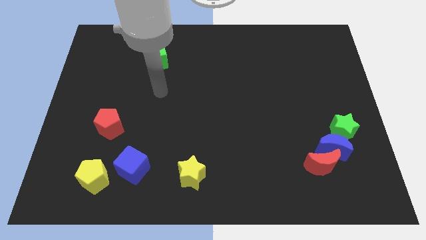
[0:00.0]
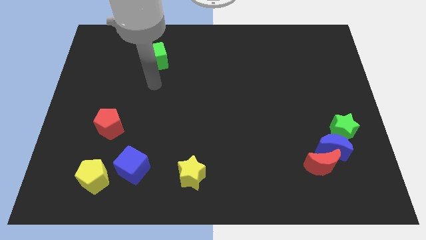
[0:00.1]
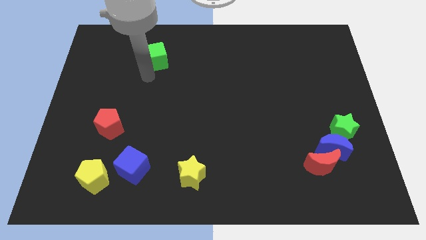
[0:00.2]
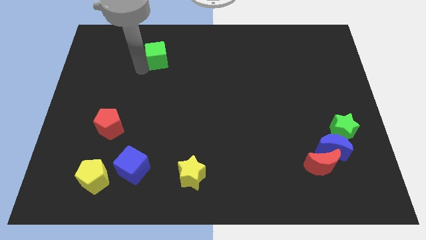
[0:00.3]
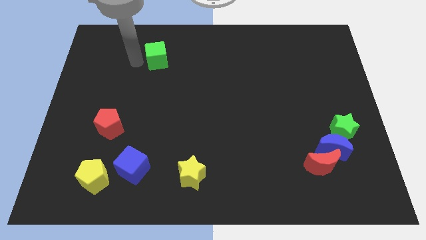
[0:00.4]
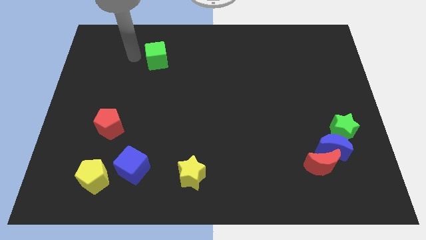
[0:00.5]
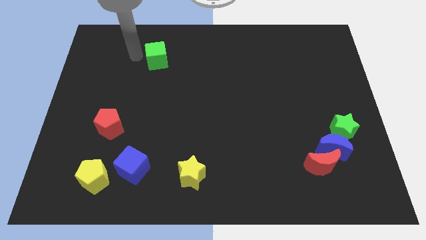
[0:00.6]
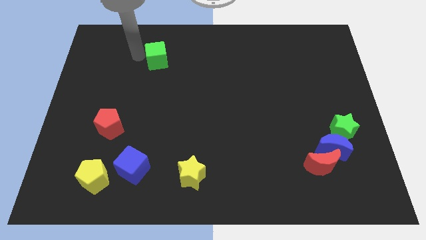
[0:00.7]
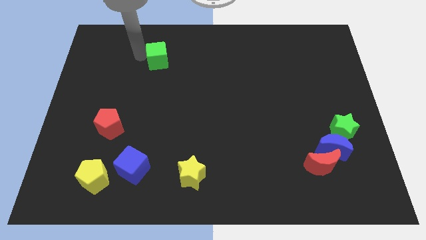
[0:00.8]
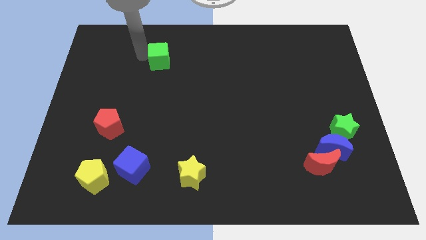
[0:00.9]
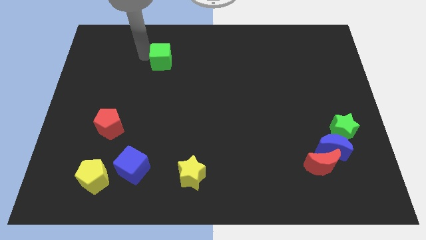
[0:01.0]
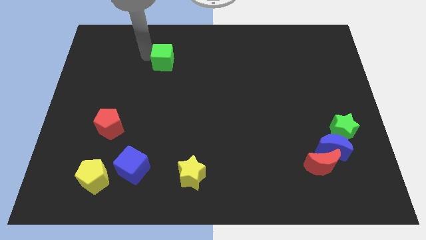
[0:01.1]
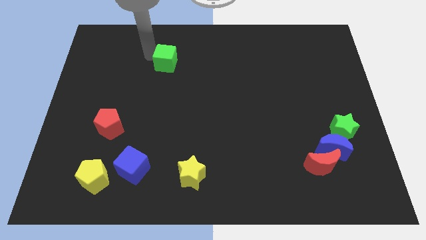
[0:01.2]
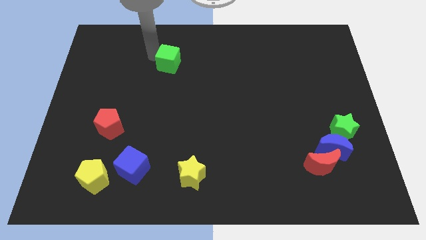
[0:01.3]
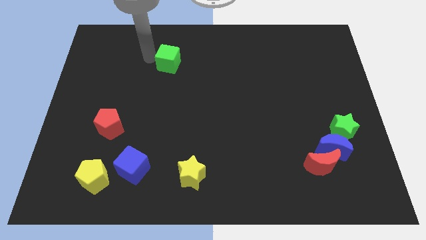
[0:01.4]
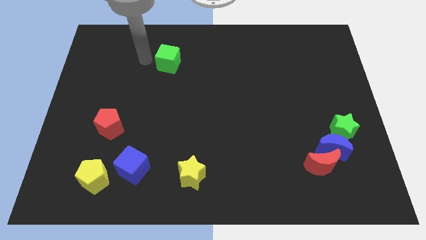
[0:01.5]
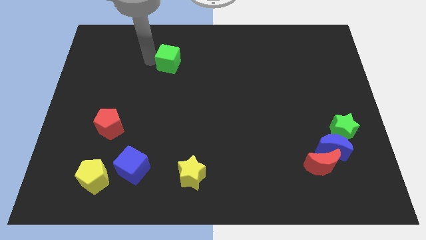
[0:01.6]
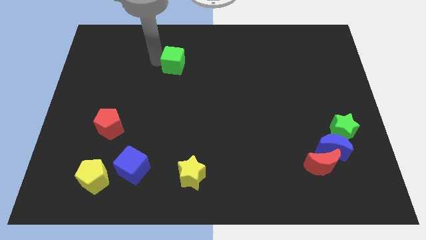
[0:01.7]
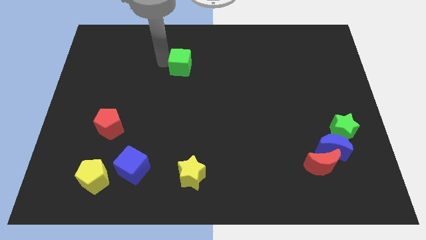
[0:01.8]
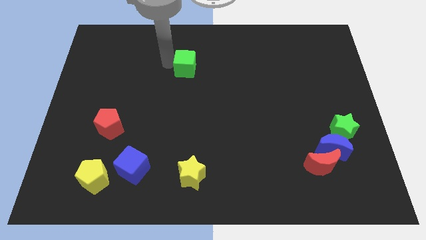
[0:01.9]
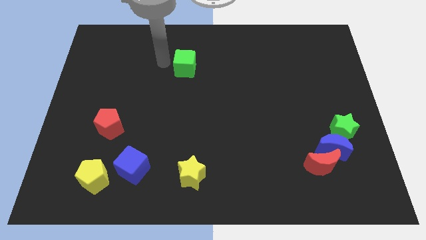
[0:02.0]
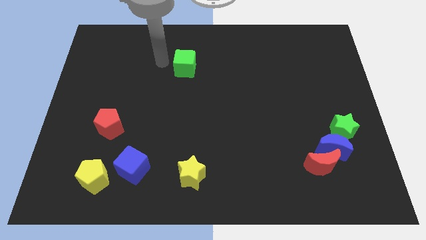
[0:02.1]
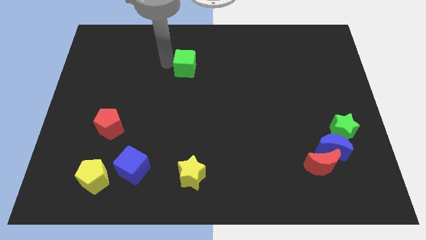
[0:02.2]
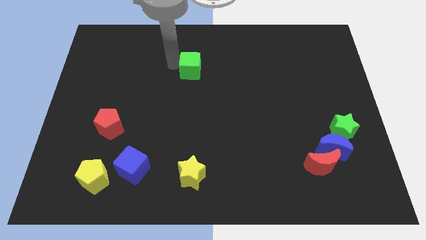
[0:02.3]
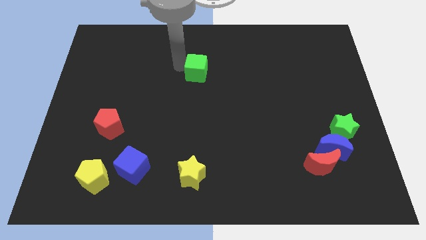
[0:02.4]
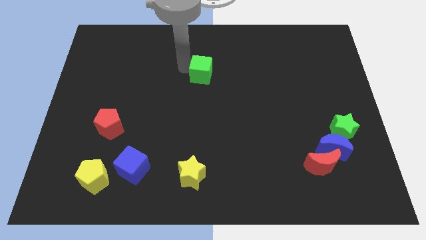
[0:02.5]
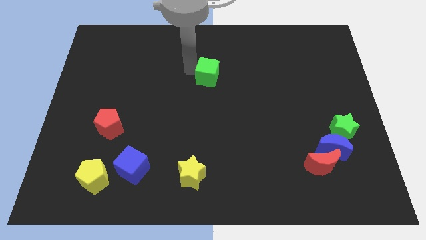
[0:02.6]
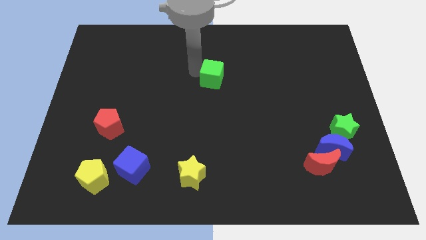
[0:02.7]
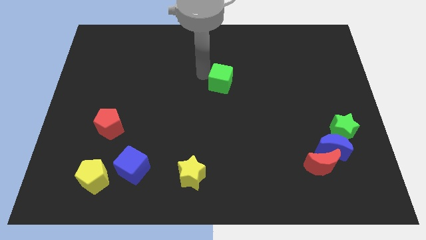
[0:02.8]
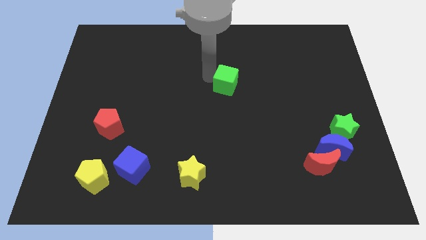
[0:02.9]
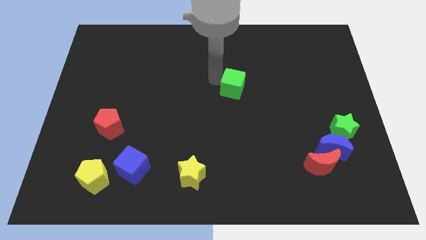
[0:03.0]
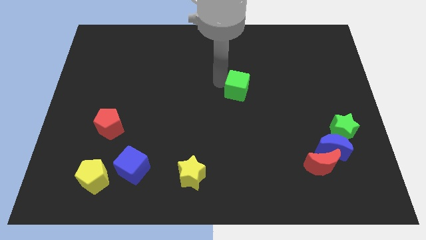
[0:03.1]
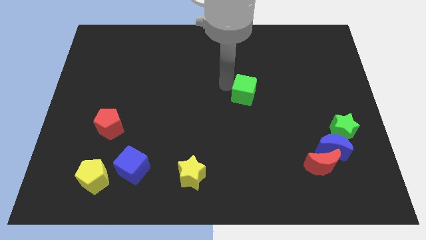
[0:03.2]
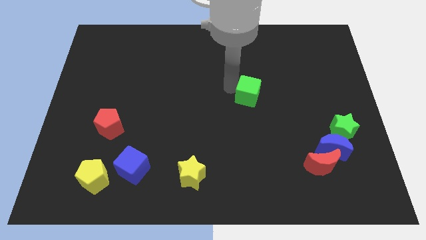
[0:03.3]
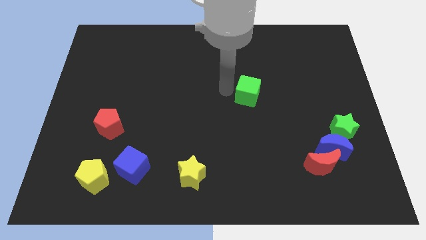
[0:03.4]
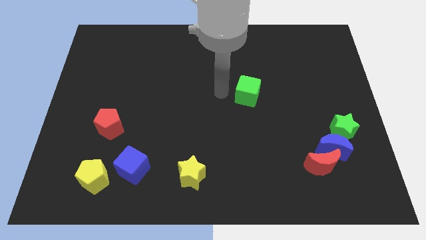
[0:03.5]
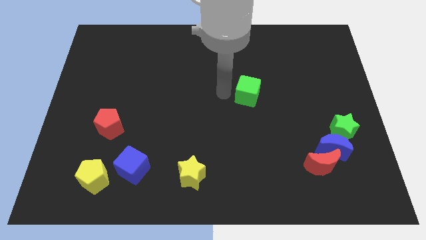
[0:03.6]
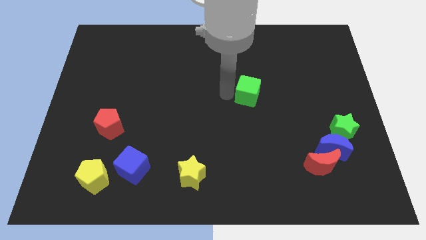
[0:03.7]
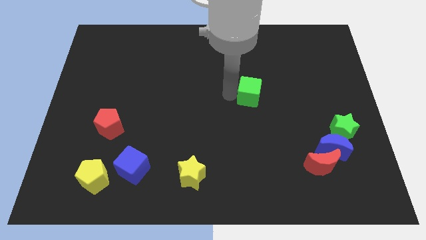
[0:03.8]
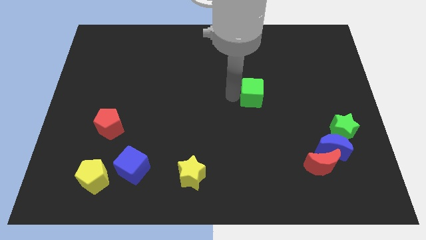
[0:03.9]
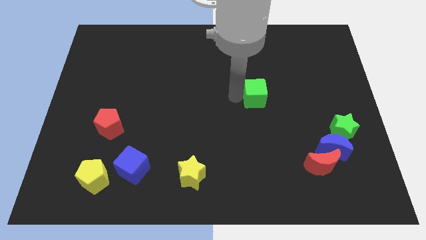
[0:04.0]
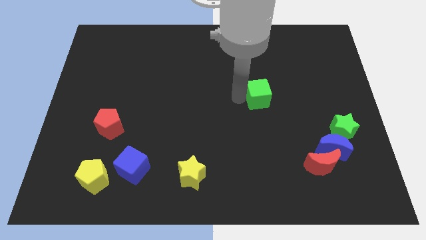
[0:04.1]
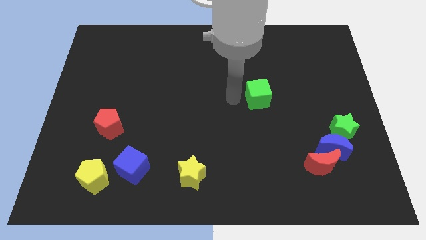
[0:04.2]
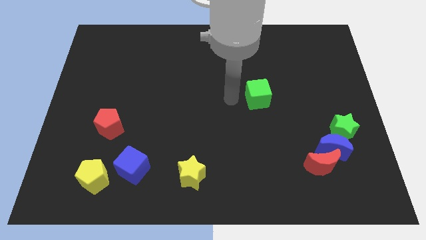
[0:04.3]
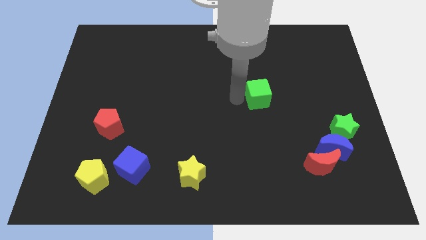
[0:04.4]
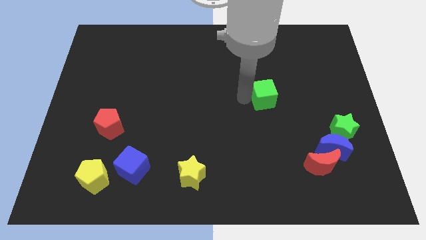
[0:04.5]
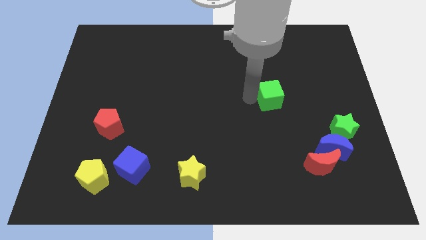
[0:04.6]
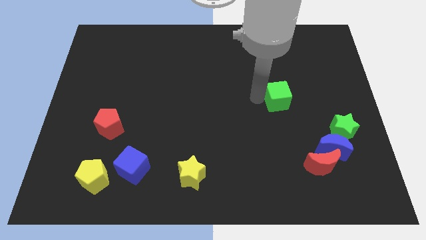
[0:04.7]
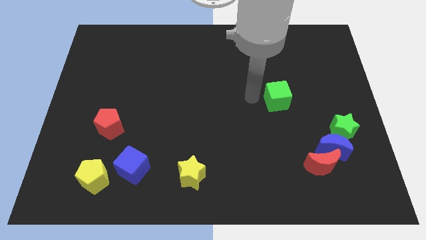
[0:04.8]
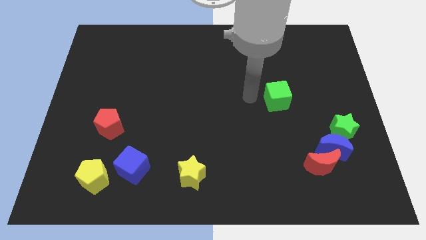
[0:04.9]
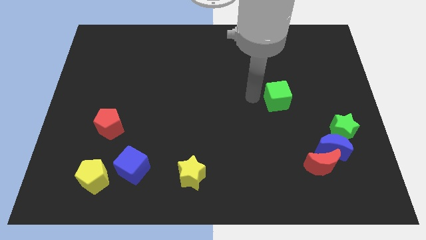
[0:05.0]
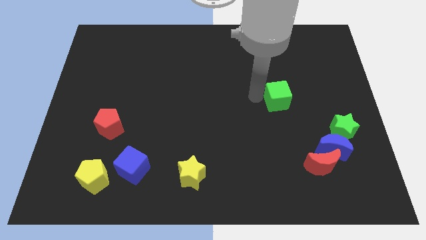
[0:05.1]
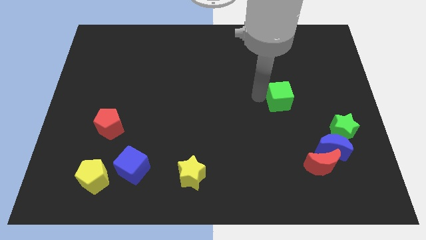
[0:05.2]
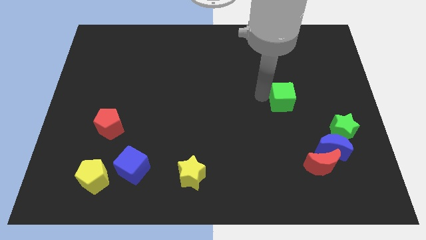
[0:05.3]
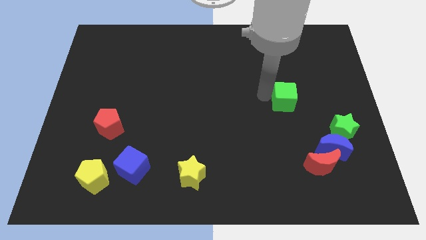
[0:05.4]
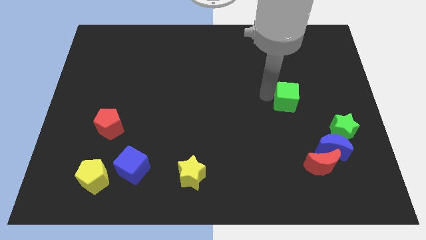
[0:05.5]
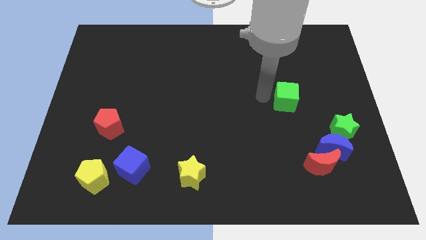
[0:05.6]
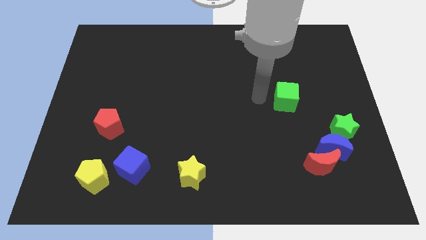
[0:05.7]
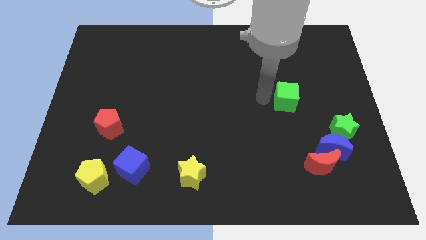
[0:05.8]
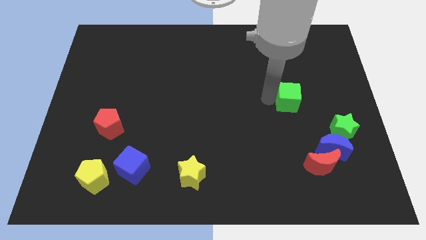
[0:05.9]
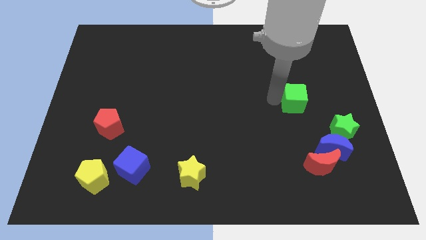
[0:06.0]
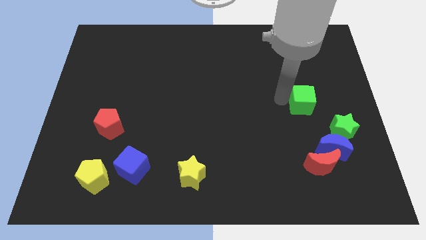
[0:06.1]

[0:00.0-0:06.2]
push the green cube above the blue moon
